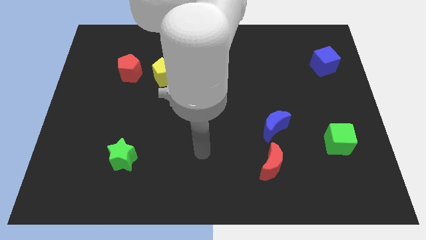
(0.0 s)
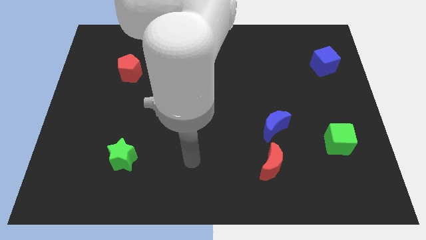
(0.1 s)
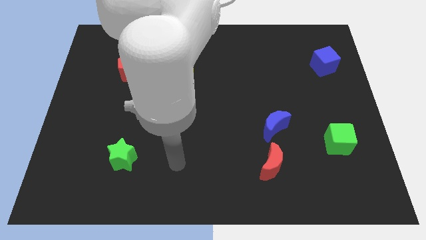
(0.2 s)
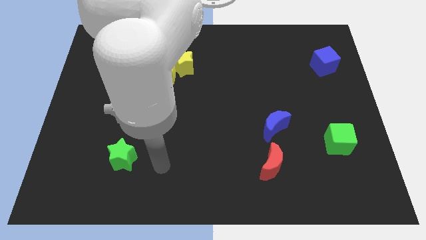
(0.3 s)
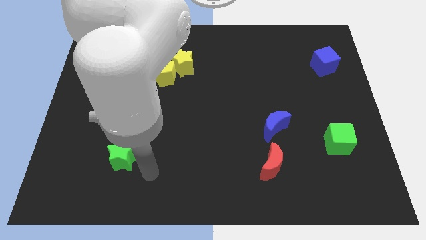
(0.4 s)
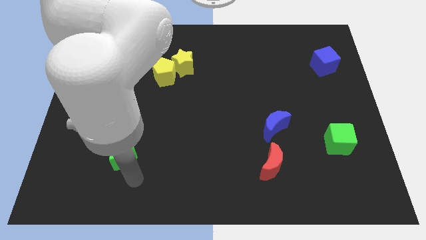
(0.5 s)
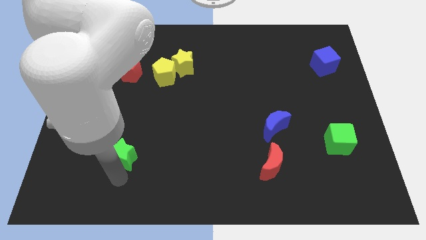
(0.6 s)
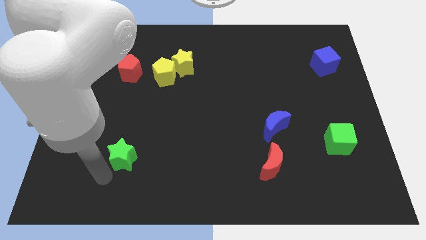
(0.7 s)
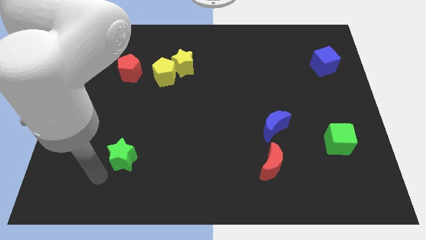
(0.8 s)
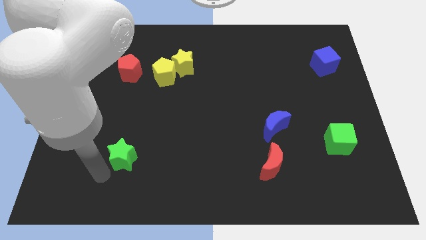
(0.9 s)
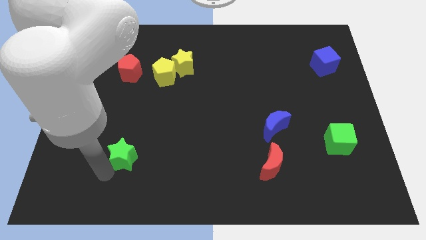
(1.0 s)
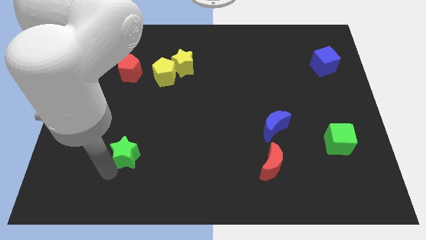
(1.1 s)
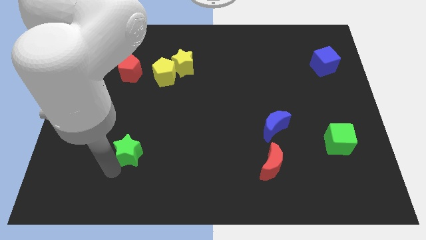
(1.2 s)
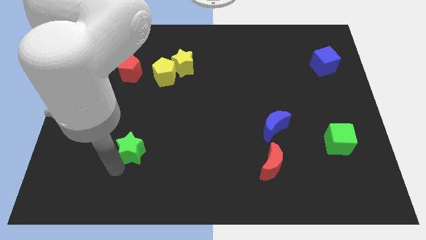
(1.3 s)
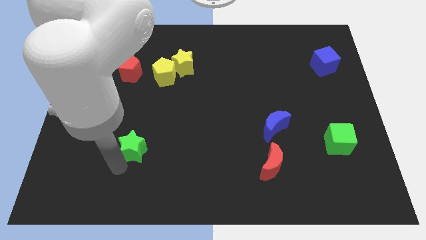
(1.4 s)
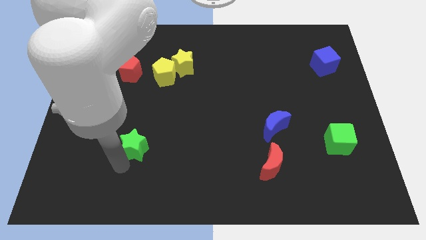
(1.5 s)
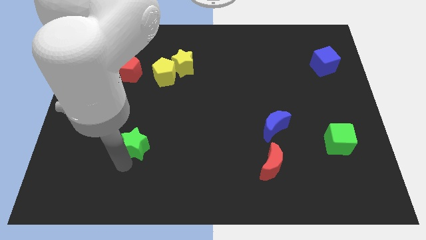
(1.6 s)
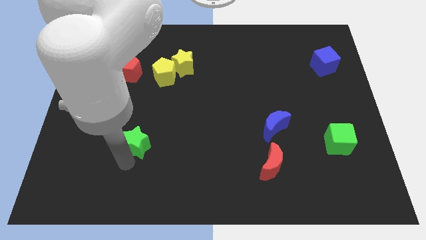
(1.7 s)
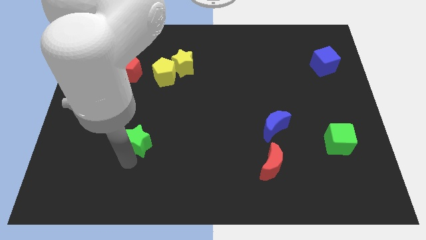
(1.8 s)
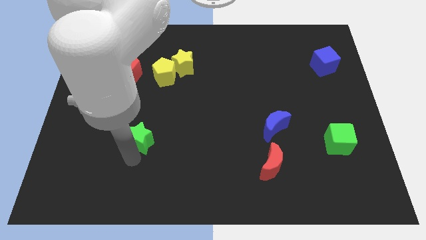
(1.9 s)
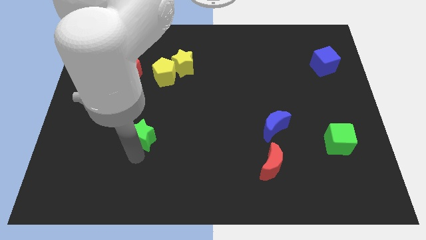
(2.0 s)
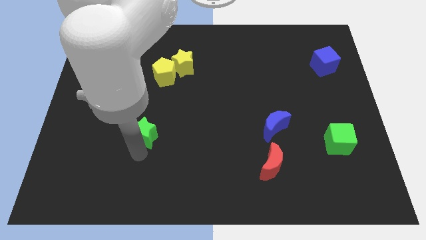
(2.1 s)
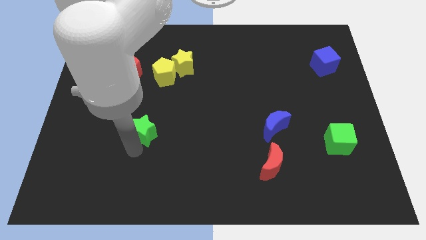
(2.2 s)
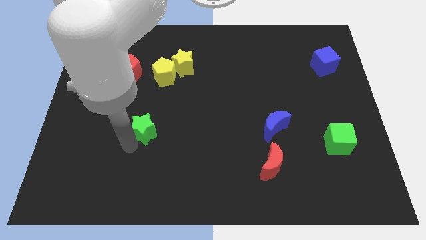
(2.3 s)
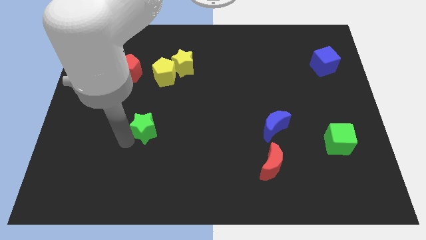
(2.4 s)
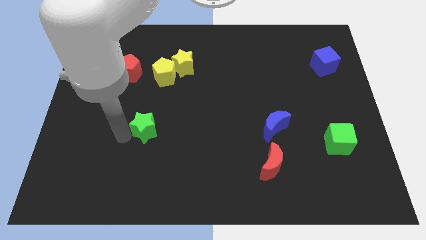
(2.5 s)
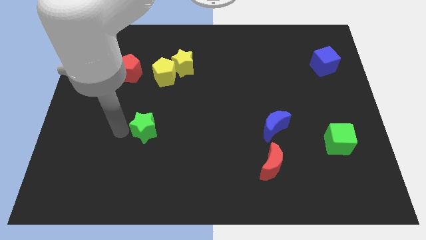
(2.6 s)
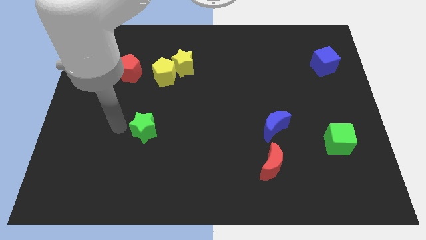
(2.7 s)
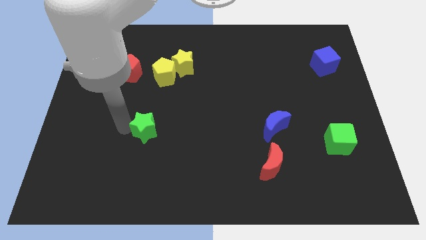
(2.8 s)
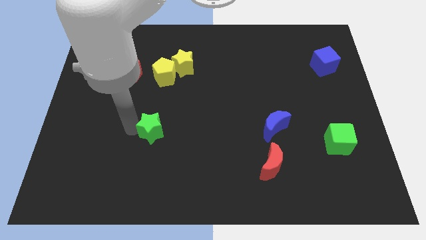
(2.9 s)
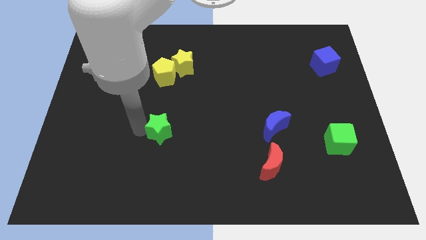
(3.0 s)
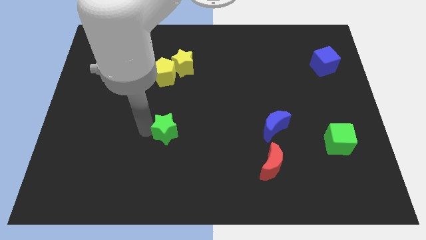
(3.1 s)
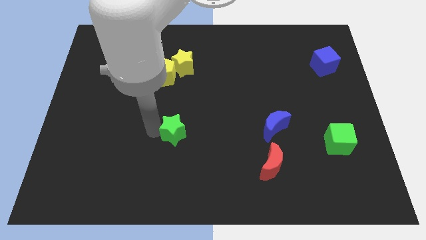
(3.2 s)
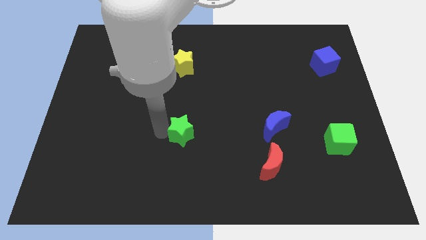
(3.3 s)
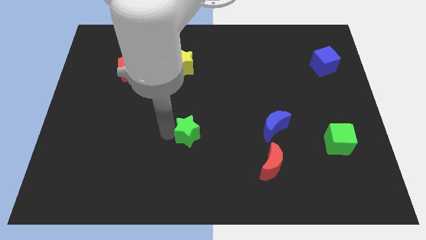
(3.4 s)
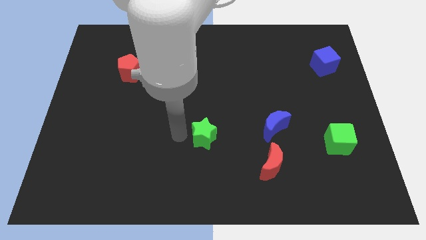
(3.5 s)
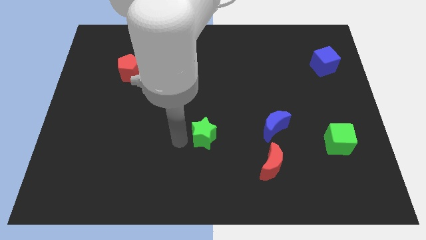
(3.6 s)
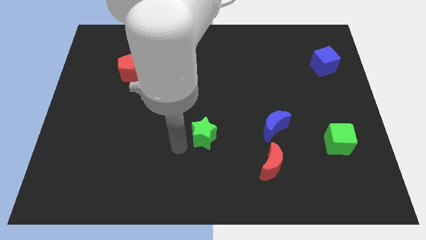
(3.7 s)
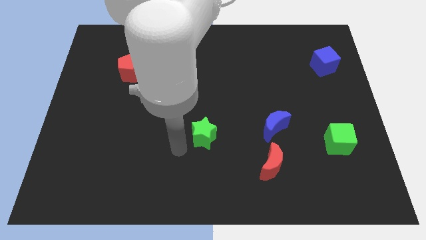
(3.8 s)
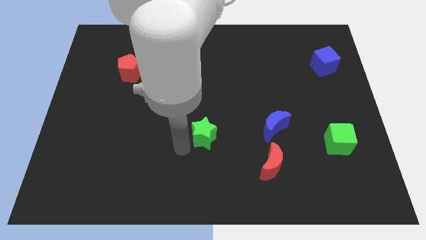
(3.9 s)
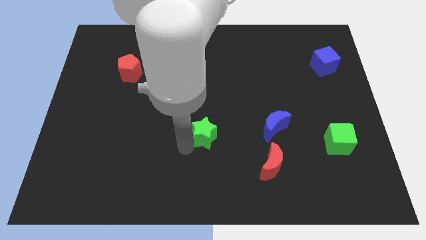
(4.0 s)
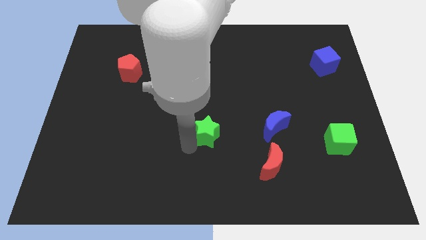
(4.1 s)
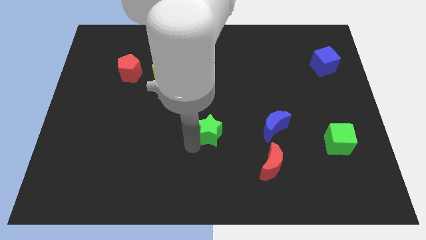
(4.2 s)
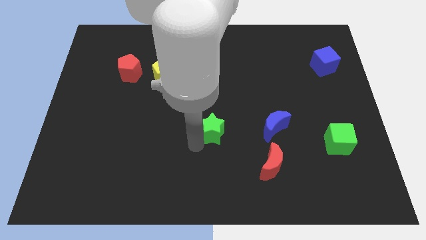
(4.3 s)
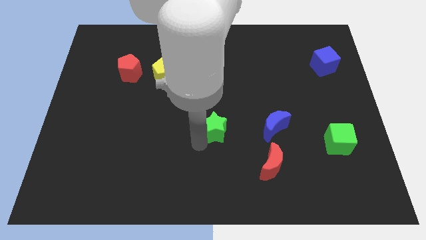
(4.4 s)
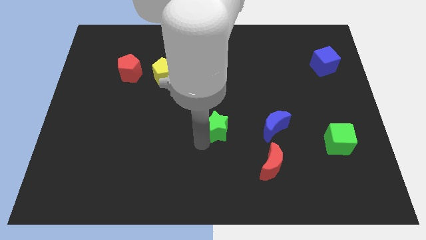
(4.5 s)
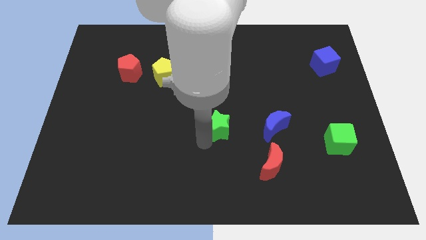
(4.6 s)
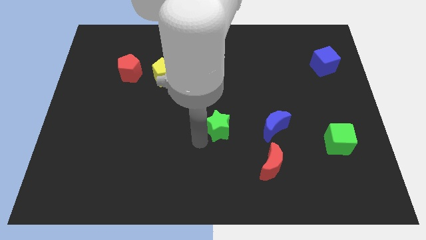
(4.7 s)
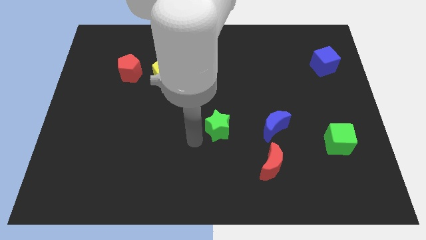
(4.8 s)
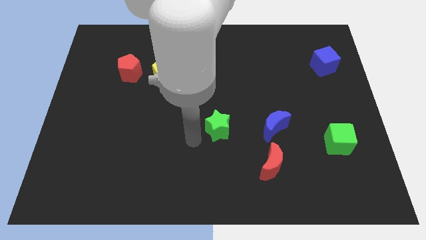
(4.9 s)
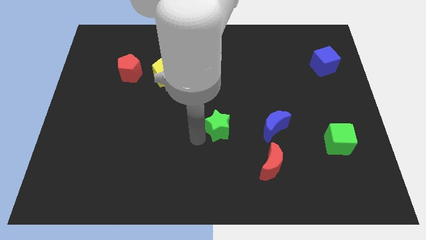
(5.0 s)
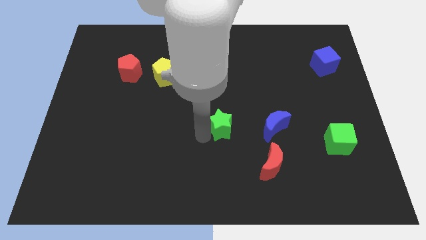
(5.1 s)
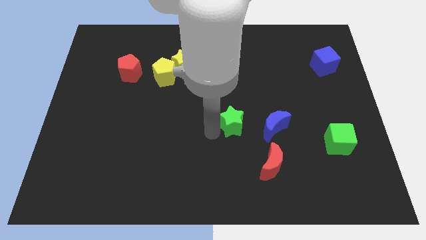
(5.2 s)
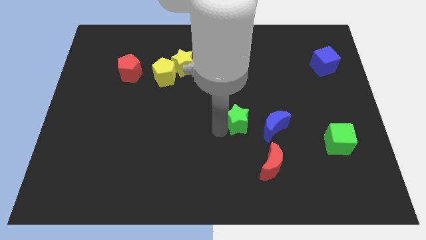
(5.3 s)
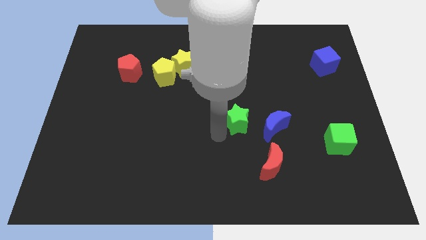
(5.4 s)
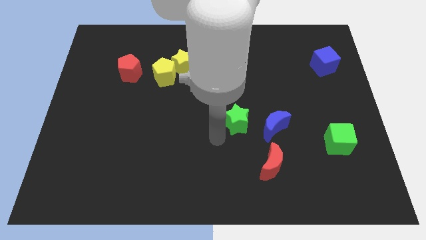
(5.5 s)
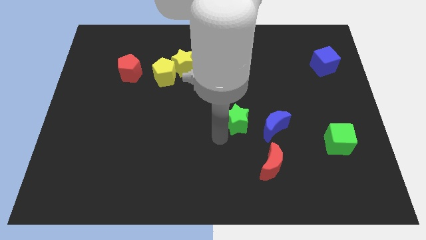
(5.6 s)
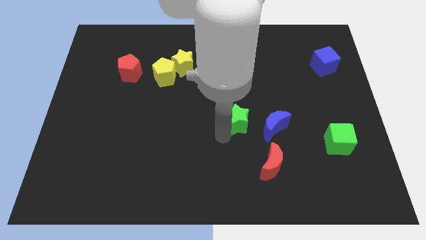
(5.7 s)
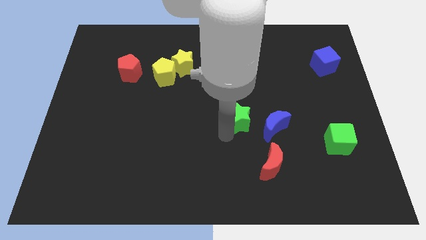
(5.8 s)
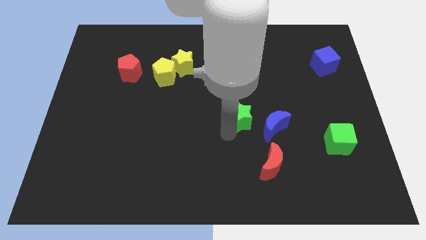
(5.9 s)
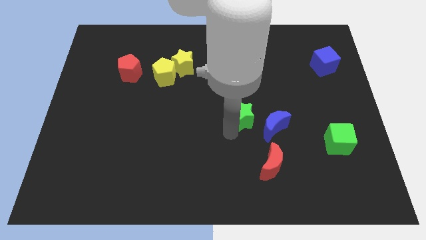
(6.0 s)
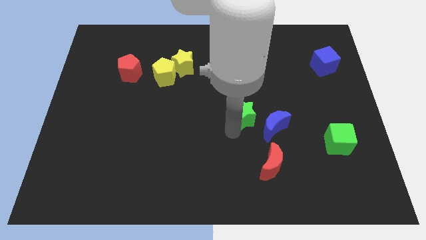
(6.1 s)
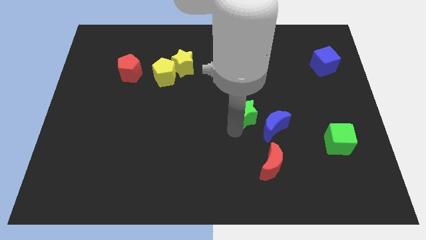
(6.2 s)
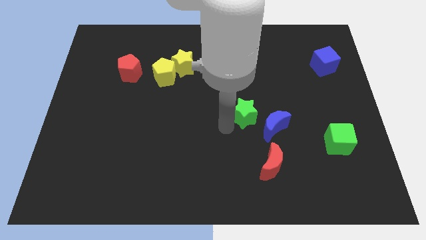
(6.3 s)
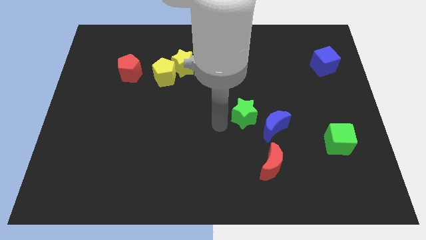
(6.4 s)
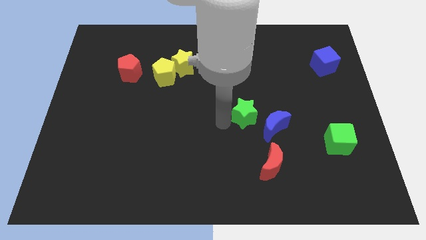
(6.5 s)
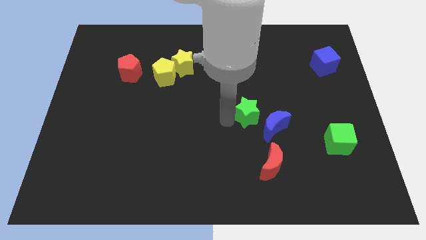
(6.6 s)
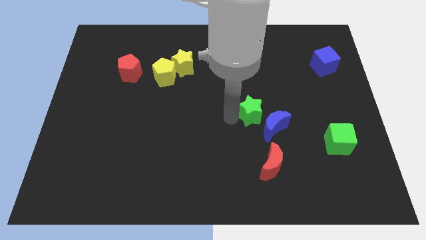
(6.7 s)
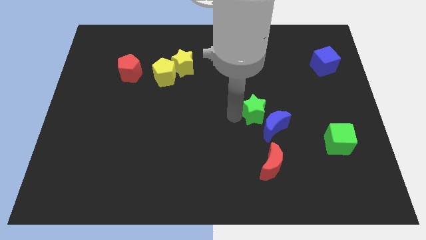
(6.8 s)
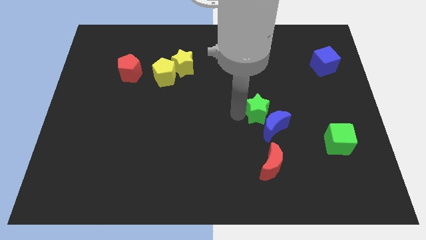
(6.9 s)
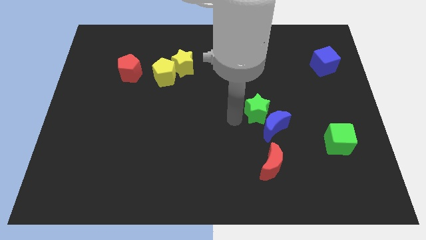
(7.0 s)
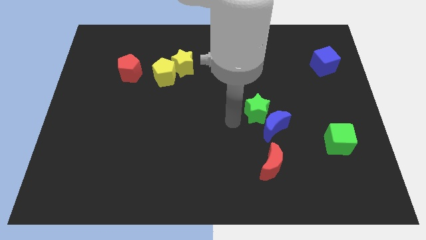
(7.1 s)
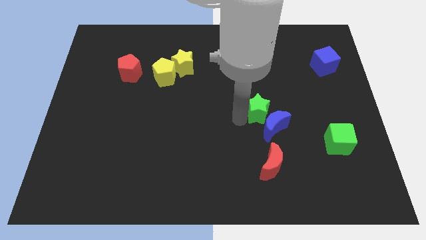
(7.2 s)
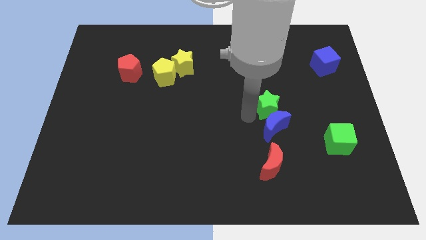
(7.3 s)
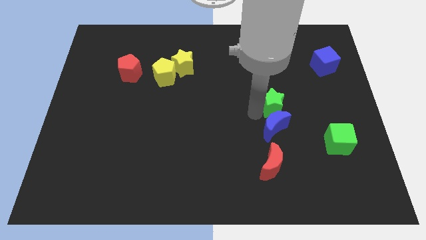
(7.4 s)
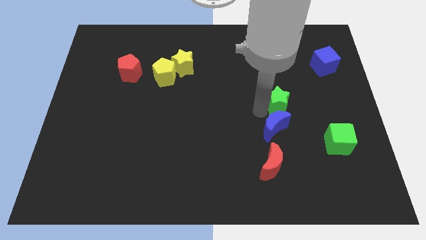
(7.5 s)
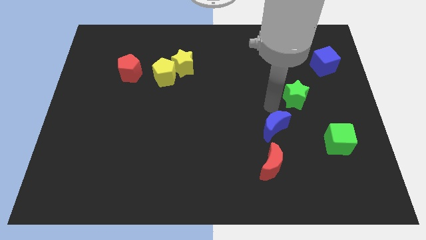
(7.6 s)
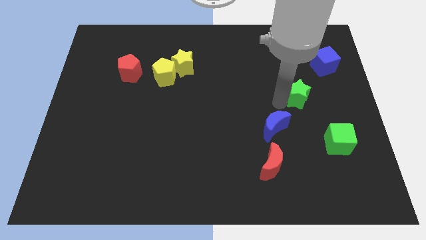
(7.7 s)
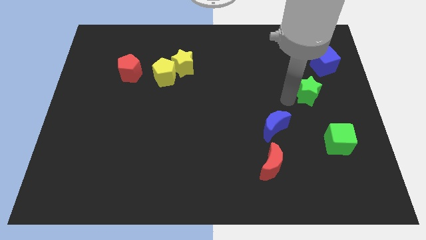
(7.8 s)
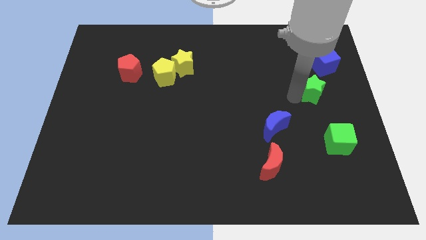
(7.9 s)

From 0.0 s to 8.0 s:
push the green star to the bottom of the blue cube

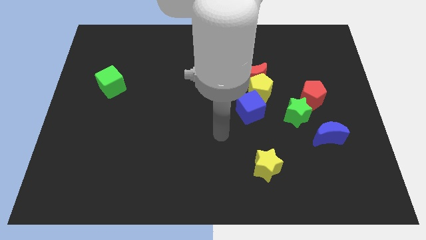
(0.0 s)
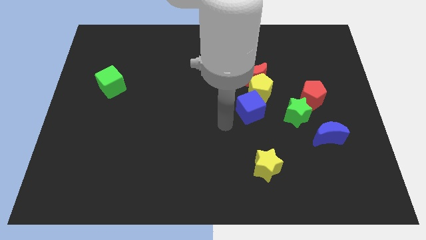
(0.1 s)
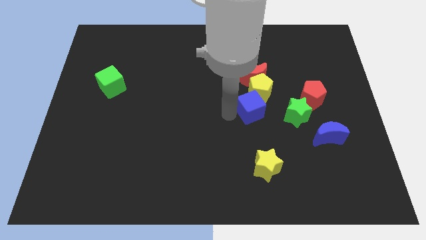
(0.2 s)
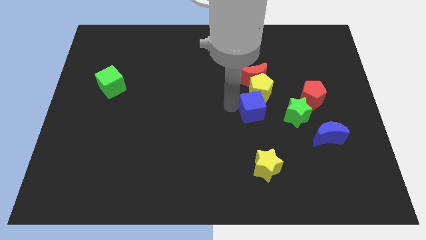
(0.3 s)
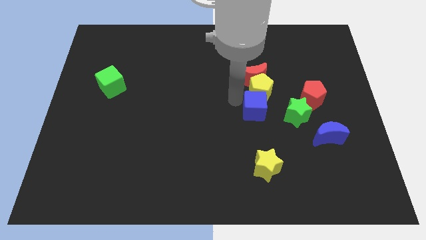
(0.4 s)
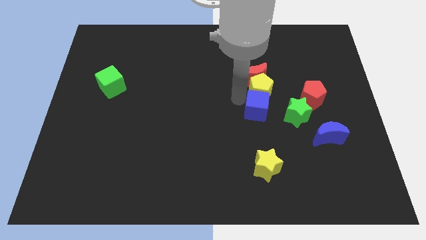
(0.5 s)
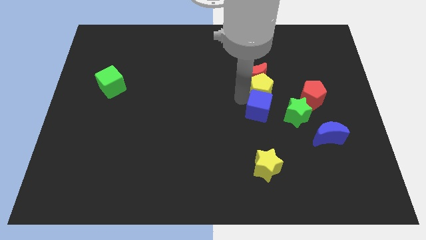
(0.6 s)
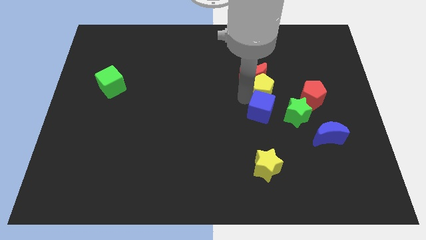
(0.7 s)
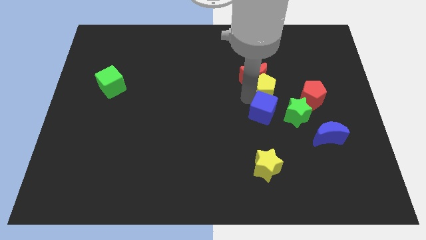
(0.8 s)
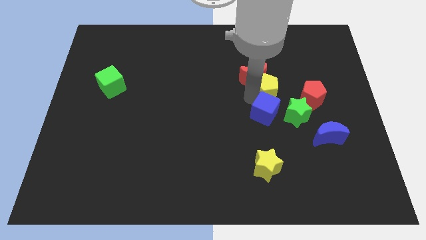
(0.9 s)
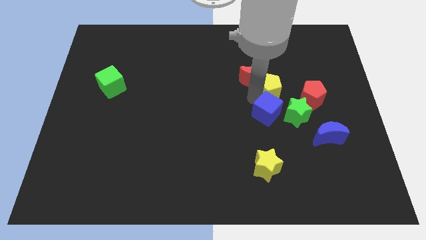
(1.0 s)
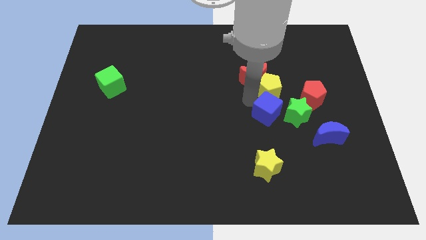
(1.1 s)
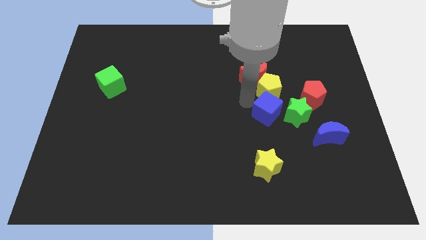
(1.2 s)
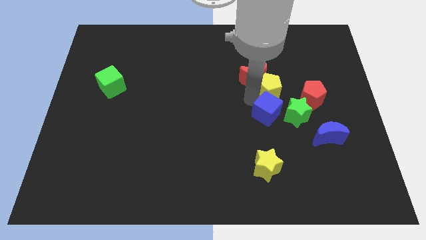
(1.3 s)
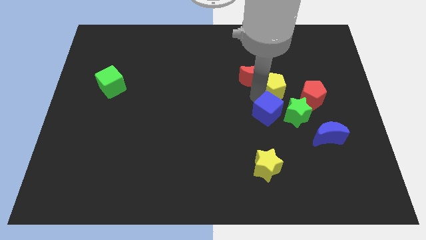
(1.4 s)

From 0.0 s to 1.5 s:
slide the yellow pentagon to the top left of the red pentagon
